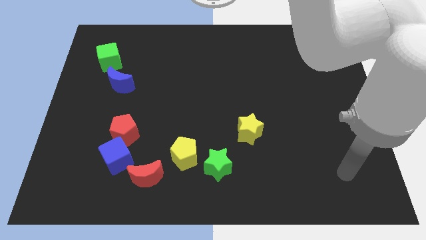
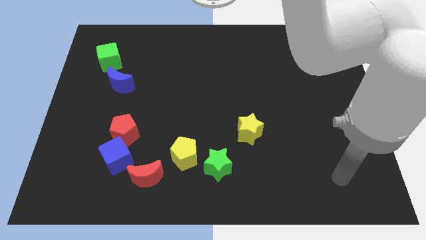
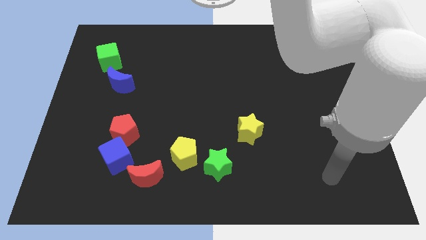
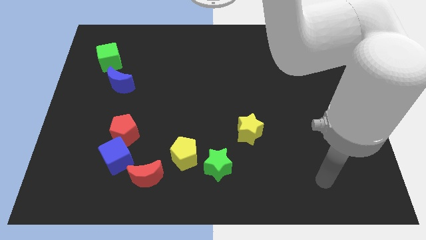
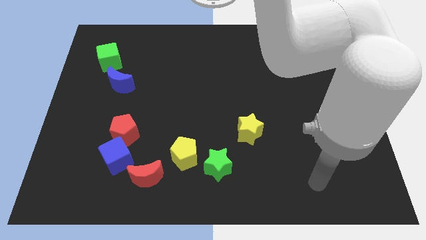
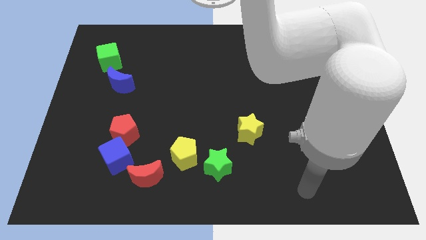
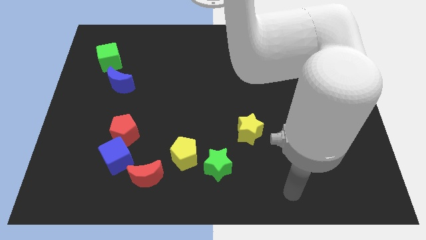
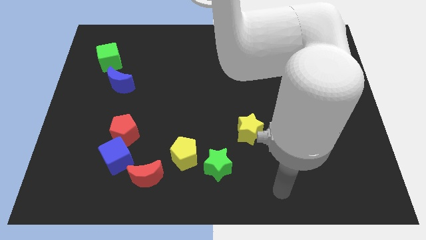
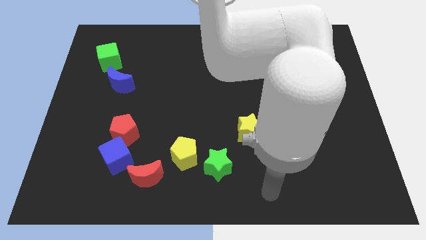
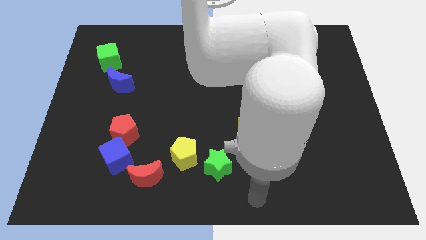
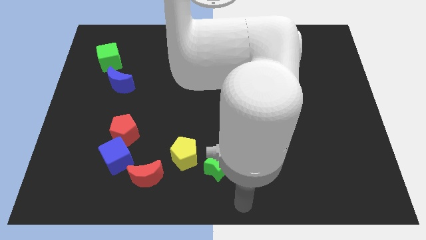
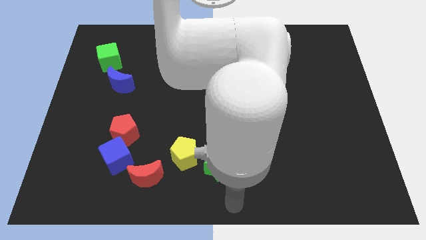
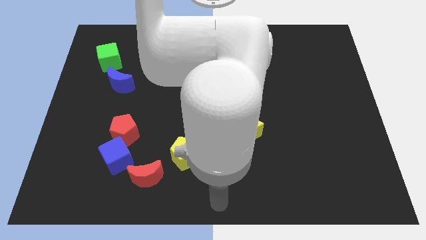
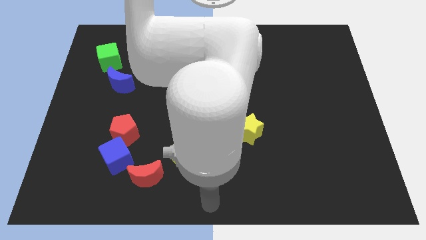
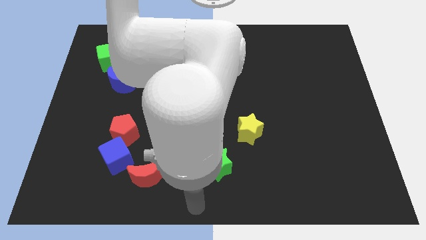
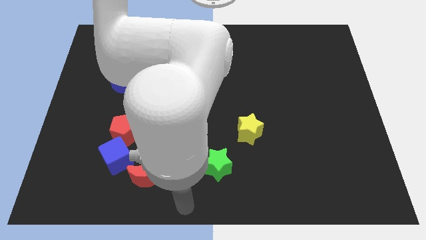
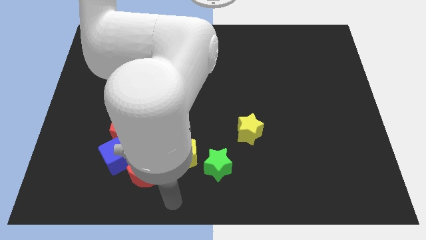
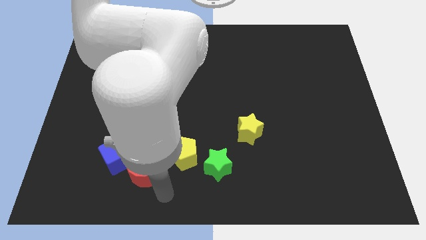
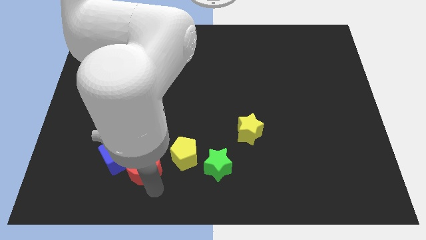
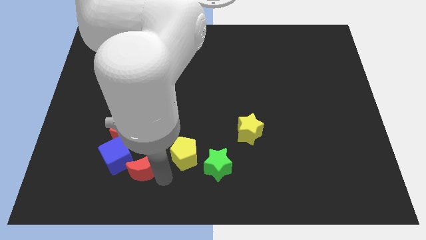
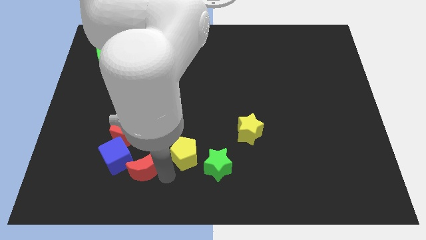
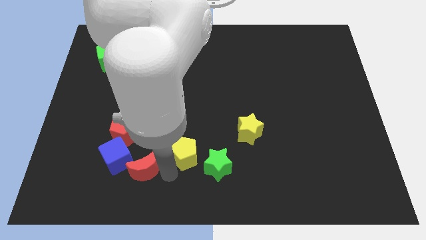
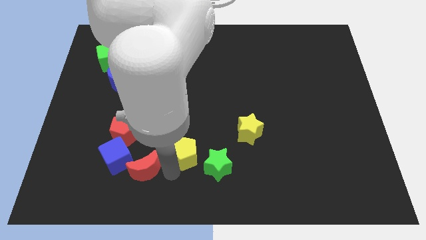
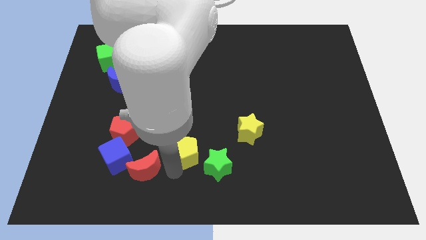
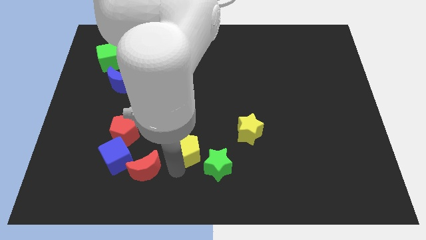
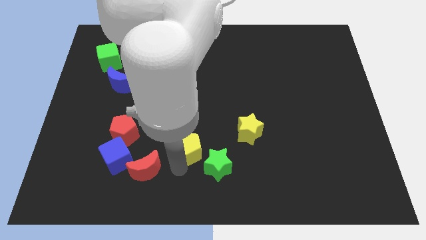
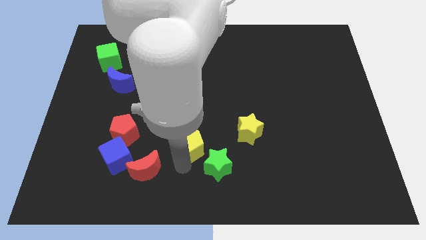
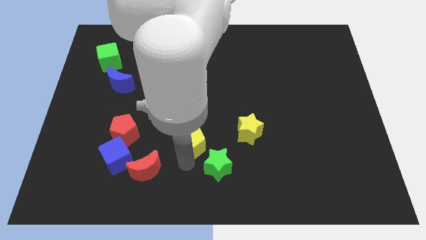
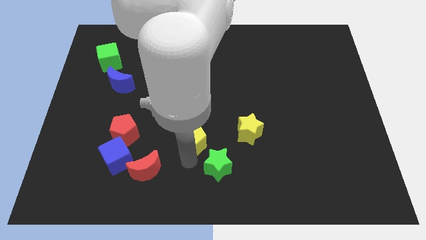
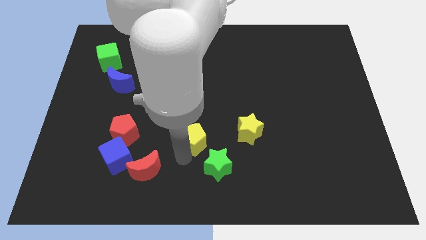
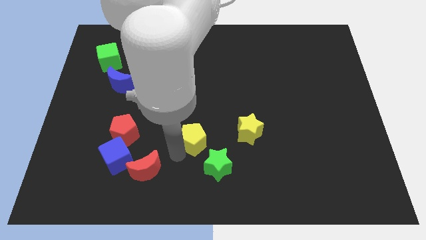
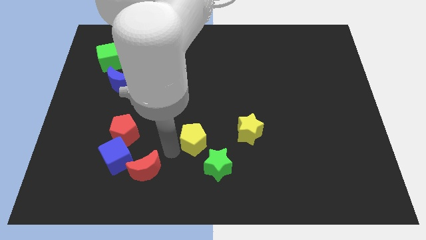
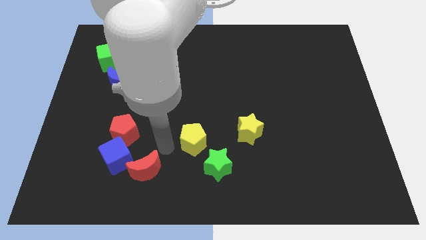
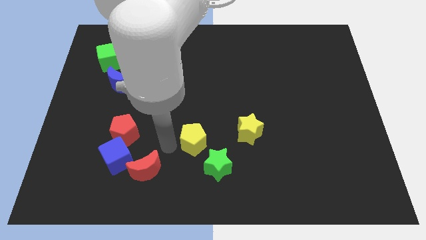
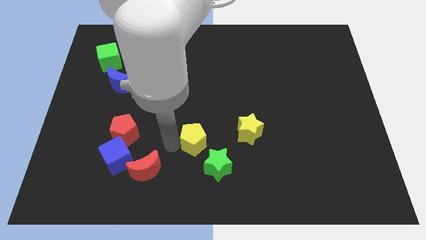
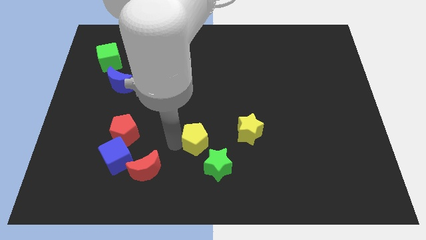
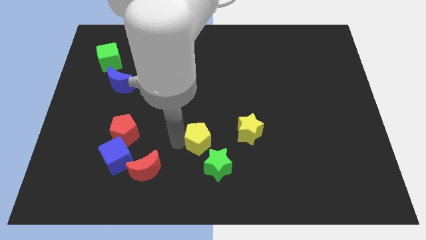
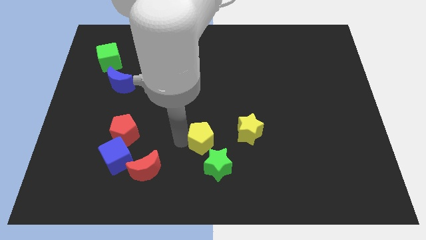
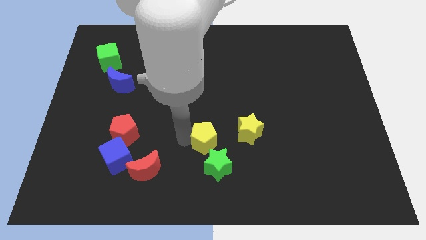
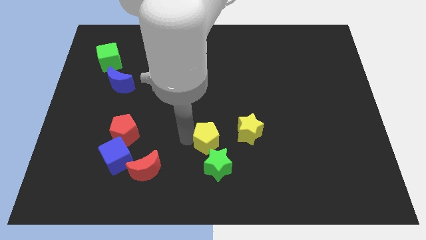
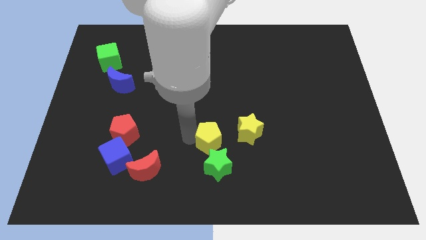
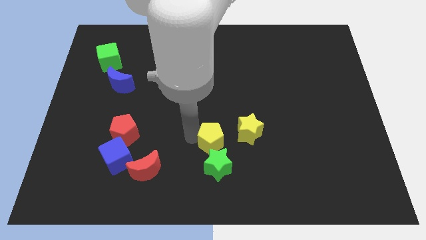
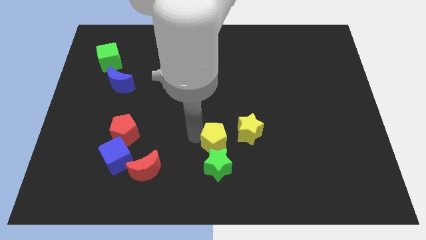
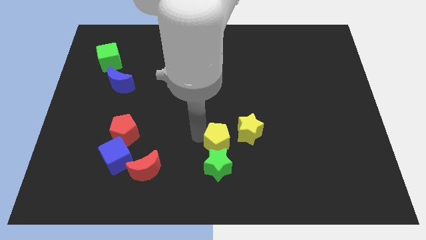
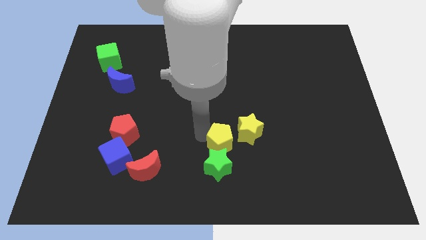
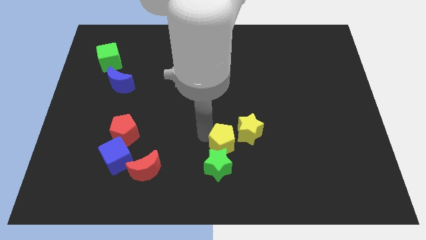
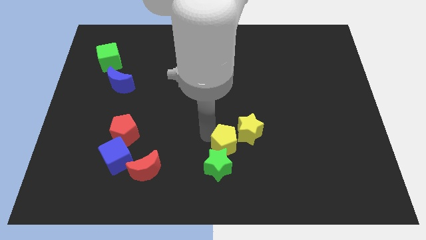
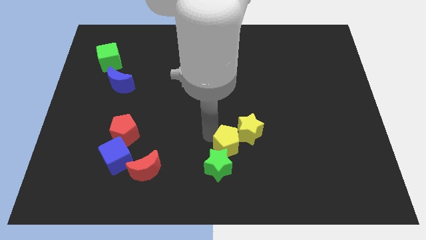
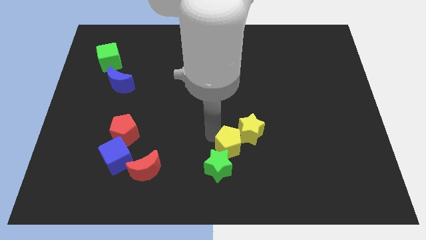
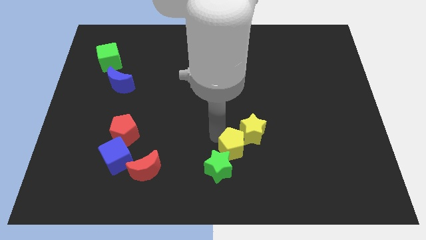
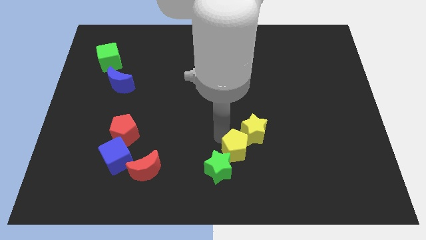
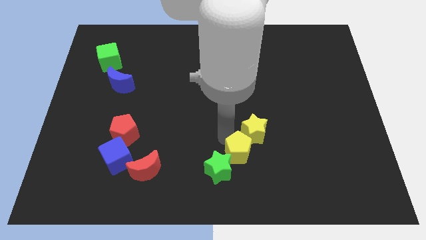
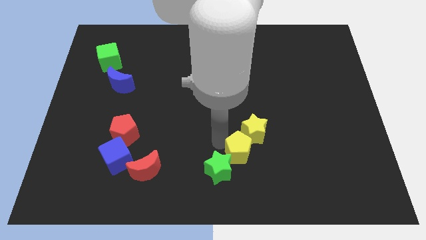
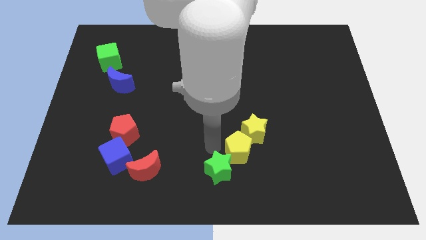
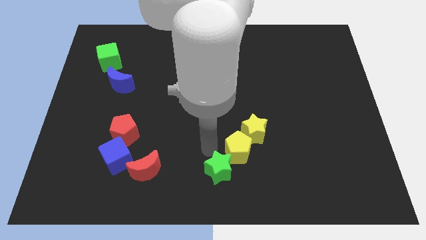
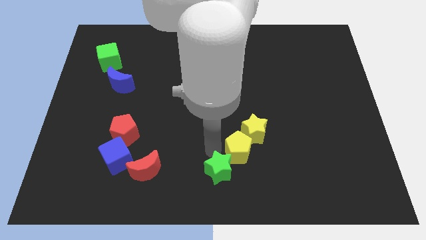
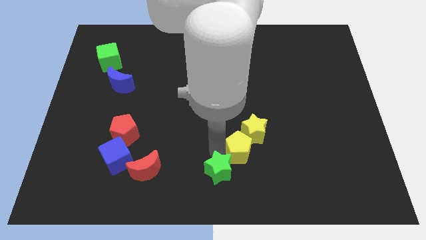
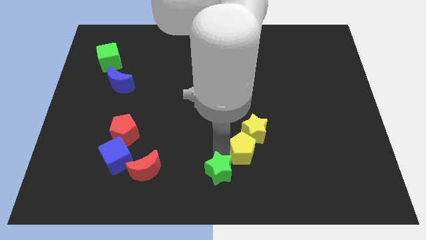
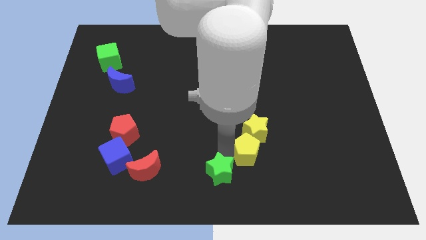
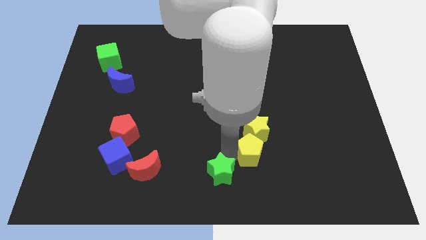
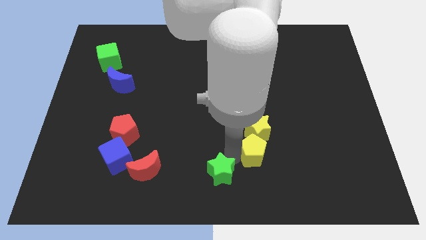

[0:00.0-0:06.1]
move the yellow pentagon to the bottom right of the yellow star
